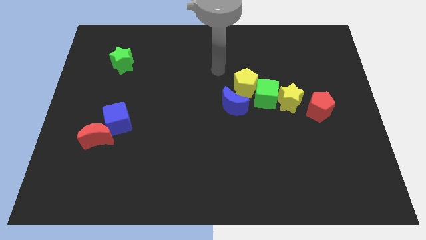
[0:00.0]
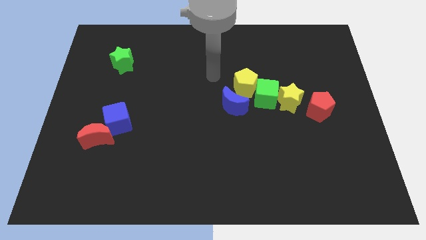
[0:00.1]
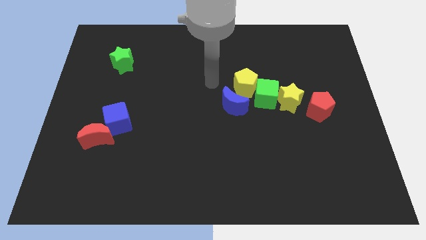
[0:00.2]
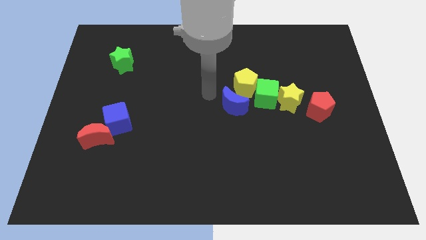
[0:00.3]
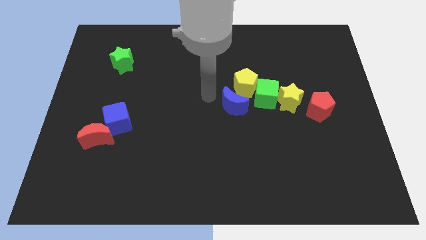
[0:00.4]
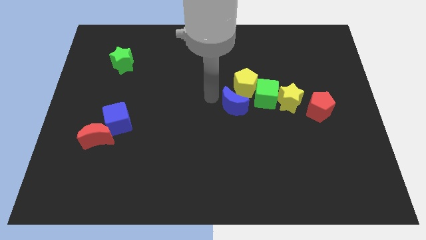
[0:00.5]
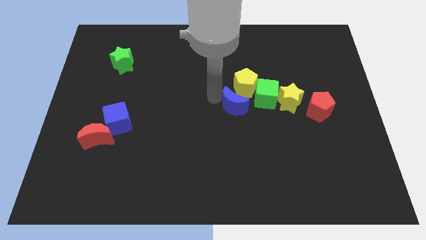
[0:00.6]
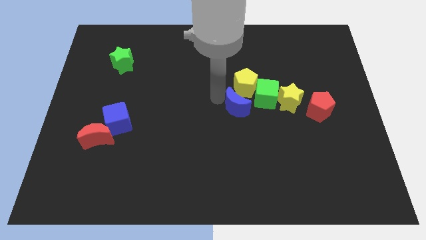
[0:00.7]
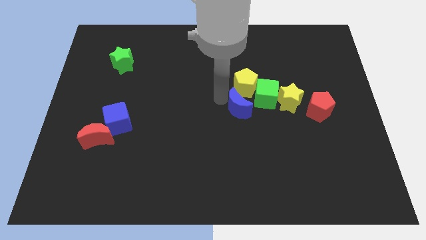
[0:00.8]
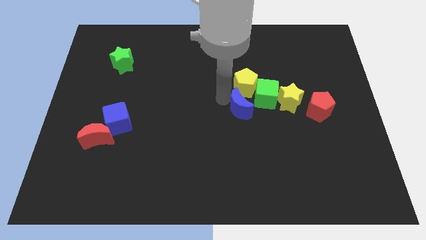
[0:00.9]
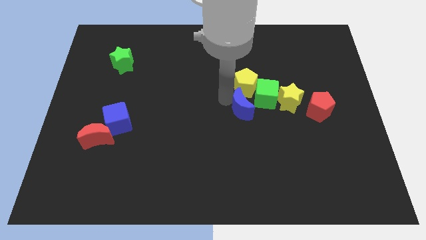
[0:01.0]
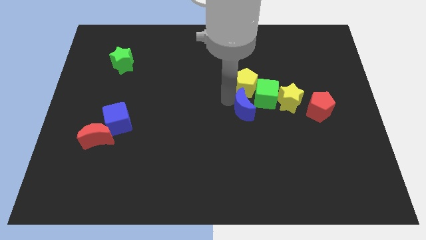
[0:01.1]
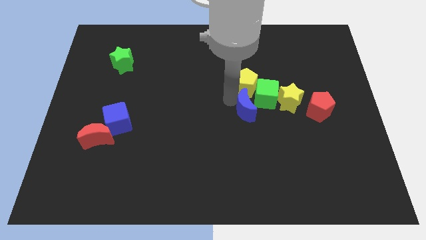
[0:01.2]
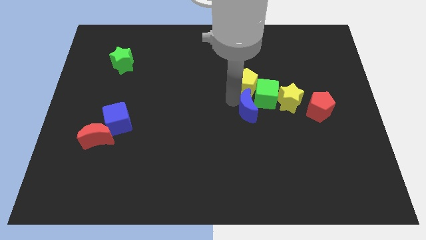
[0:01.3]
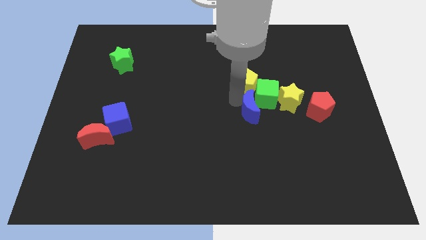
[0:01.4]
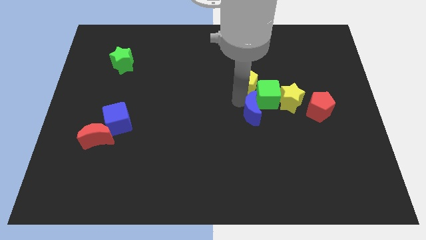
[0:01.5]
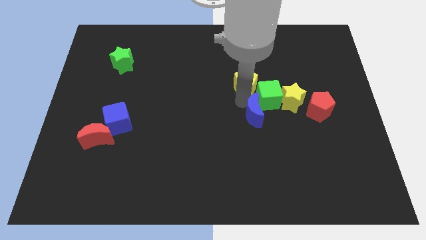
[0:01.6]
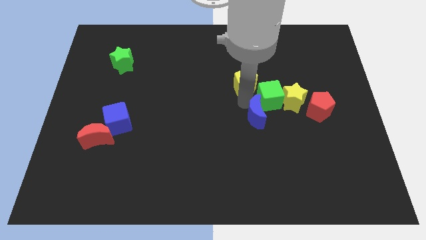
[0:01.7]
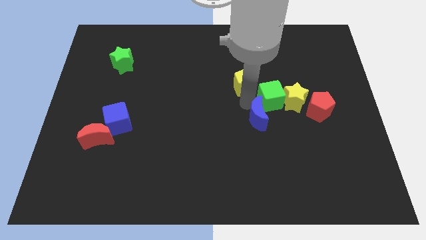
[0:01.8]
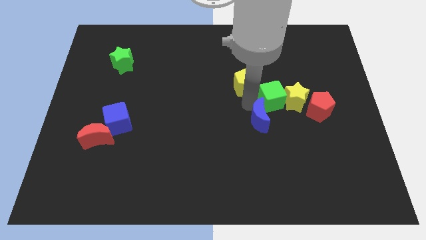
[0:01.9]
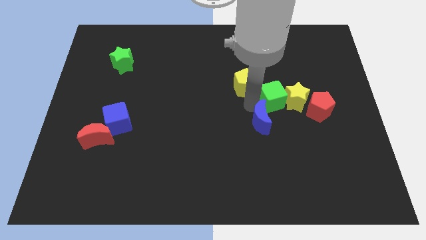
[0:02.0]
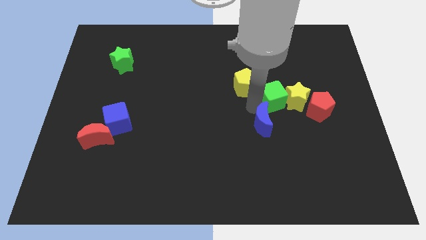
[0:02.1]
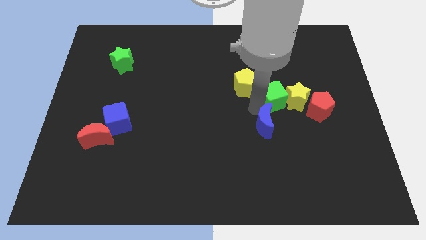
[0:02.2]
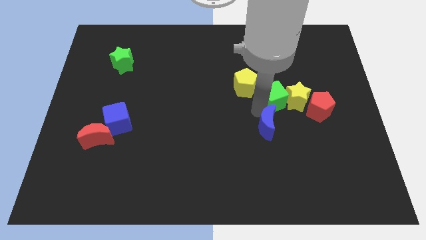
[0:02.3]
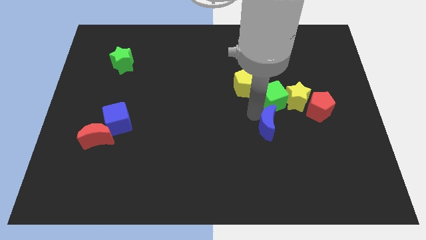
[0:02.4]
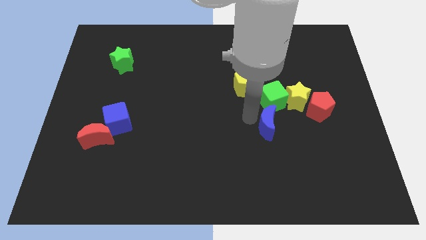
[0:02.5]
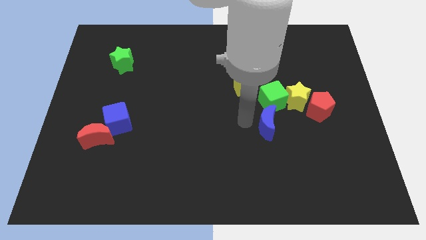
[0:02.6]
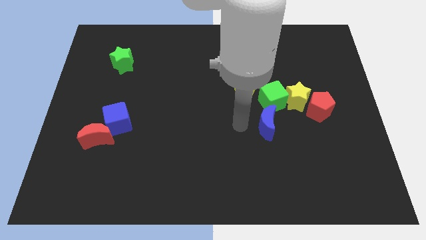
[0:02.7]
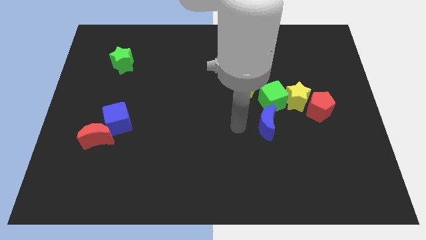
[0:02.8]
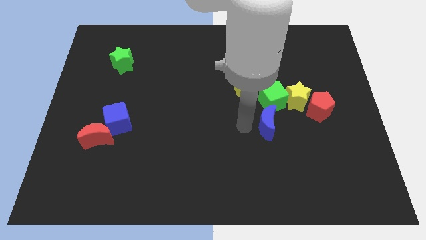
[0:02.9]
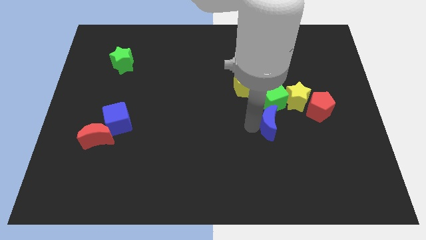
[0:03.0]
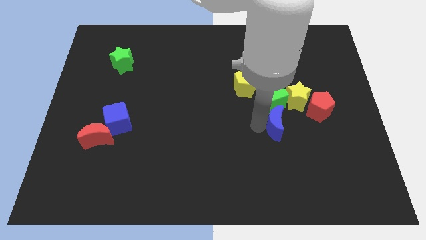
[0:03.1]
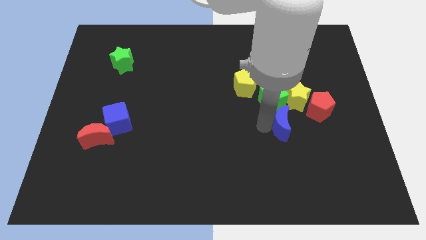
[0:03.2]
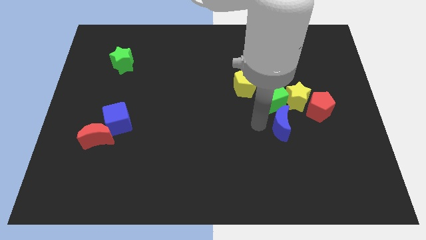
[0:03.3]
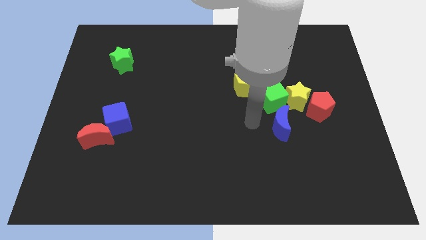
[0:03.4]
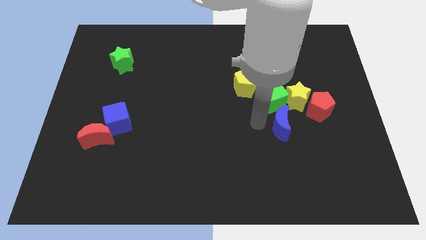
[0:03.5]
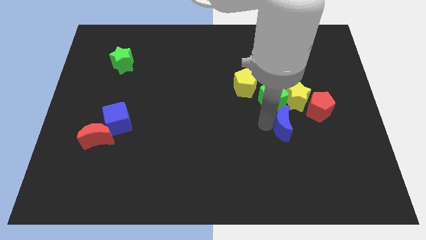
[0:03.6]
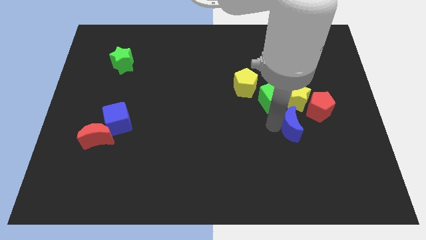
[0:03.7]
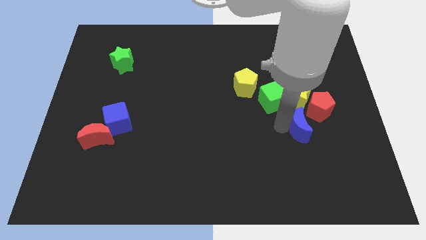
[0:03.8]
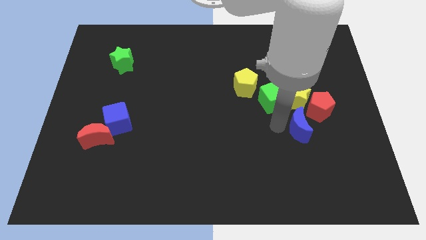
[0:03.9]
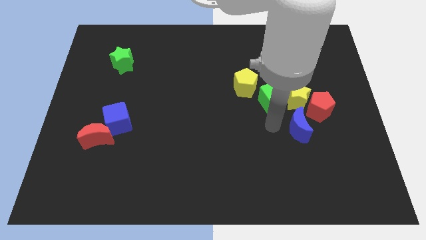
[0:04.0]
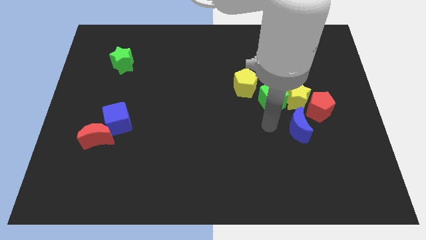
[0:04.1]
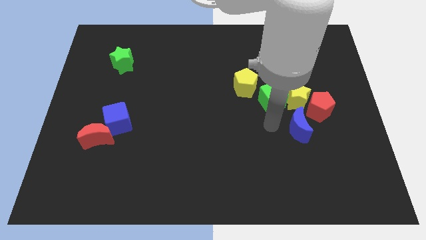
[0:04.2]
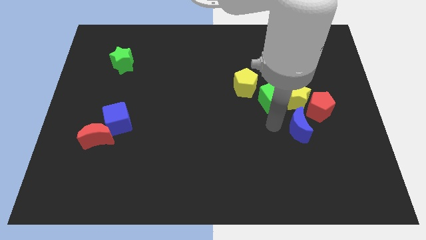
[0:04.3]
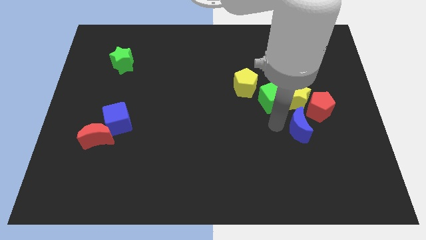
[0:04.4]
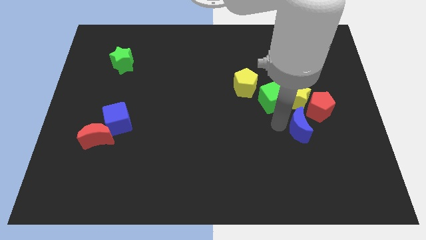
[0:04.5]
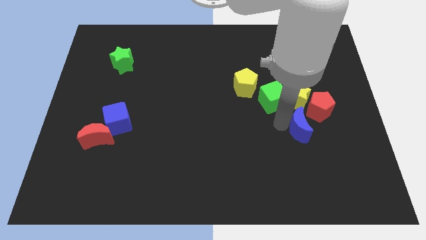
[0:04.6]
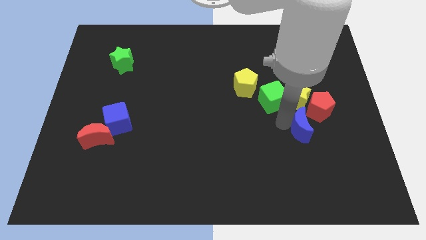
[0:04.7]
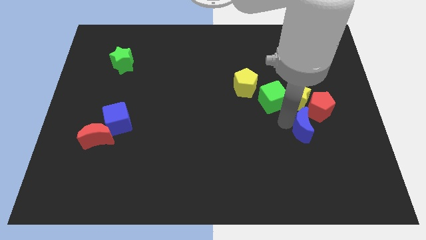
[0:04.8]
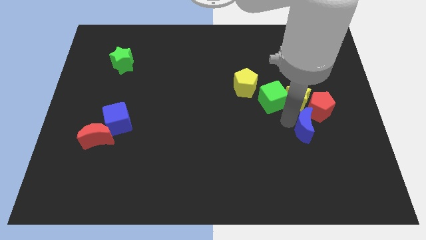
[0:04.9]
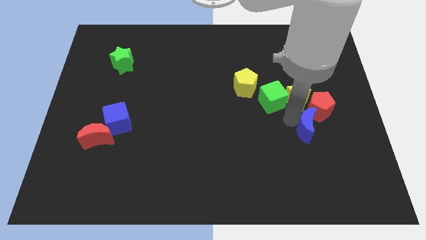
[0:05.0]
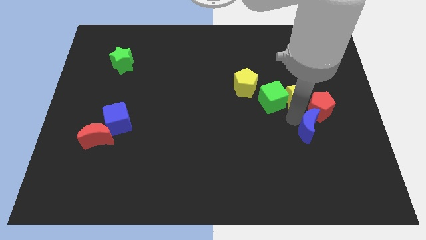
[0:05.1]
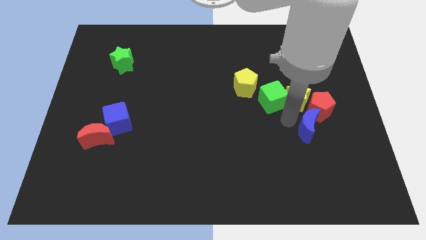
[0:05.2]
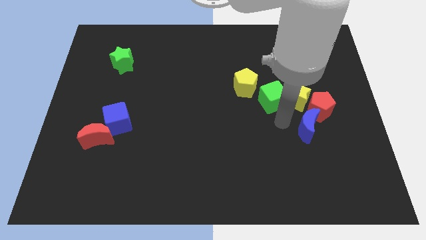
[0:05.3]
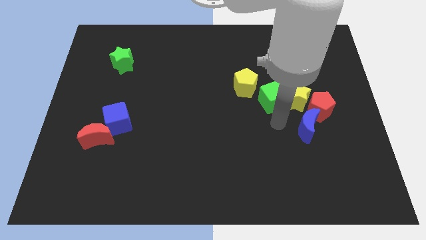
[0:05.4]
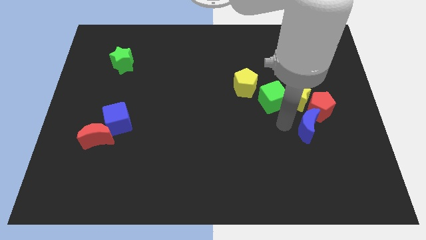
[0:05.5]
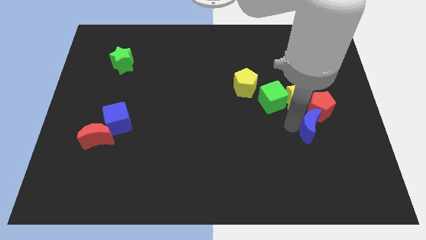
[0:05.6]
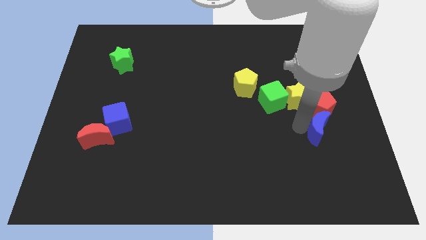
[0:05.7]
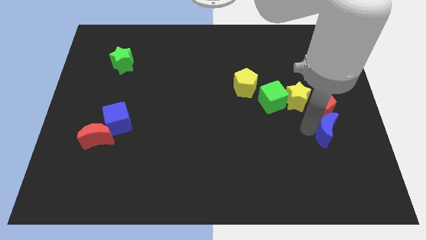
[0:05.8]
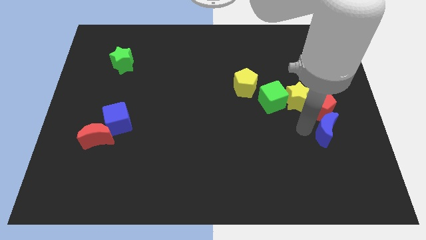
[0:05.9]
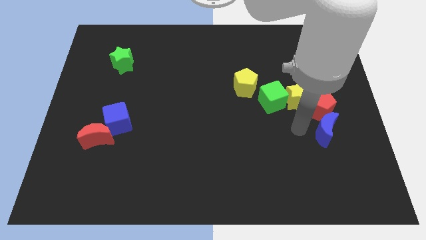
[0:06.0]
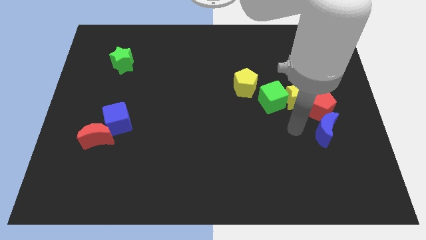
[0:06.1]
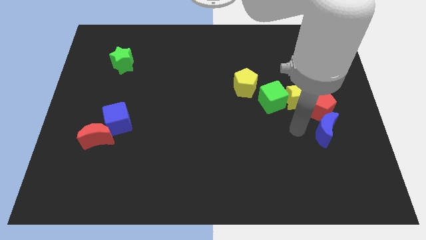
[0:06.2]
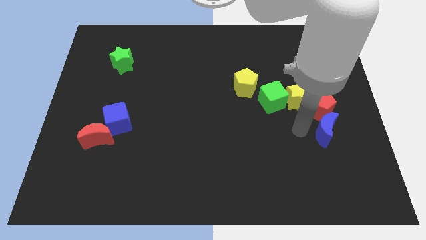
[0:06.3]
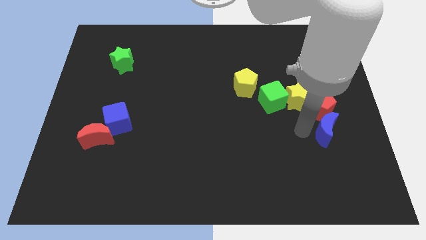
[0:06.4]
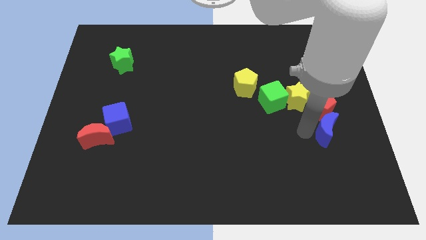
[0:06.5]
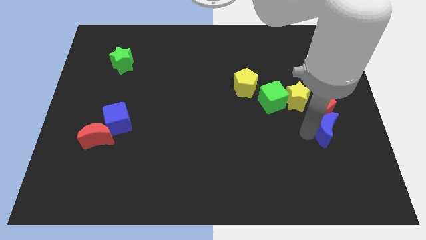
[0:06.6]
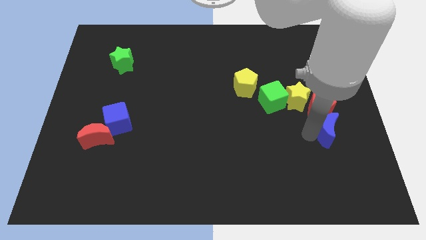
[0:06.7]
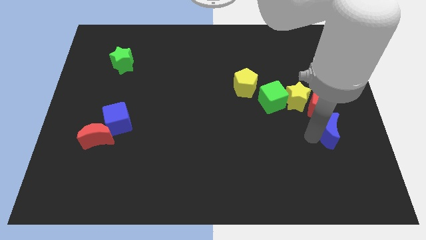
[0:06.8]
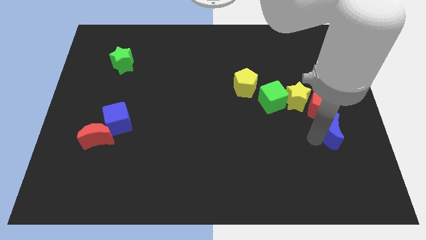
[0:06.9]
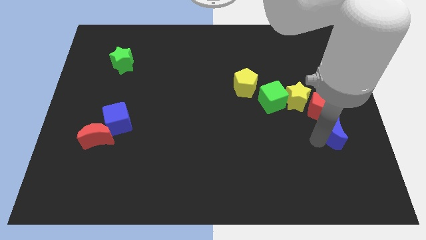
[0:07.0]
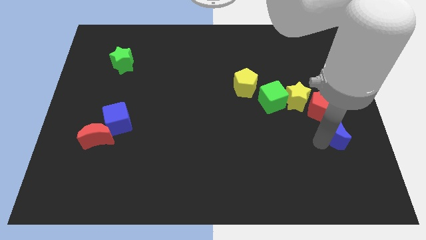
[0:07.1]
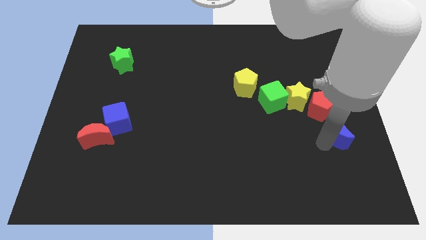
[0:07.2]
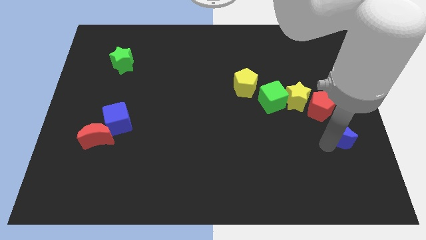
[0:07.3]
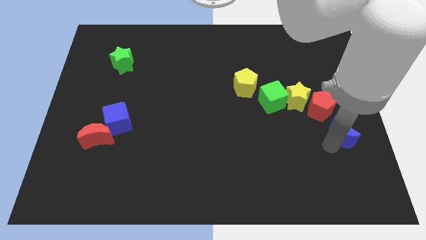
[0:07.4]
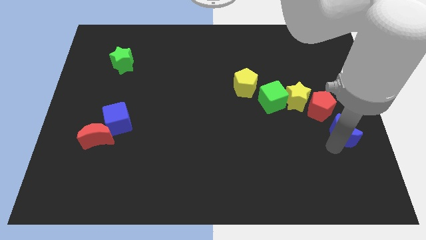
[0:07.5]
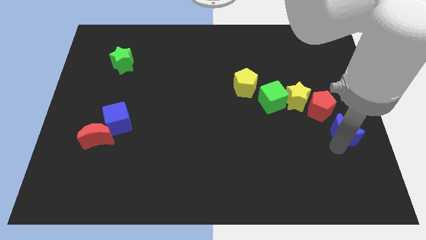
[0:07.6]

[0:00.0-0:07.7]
move the blue moon to the right side
